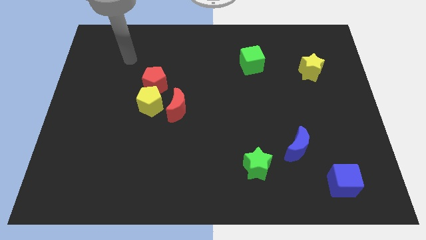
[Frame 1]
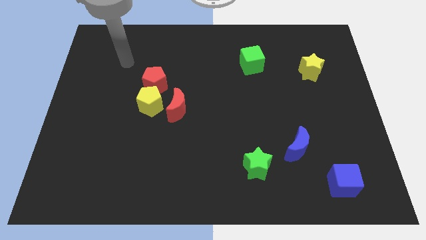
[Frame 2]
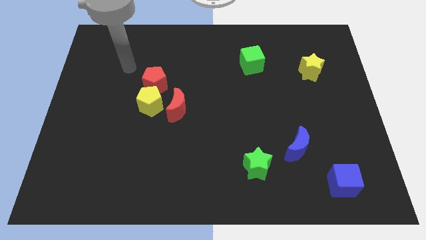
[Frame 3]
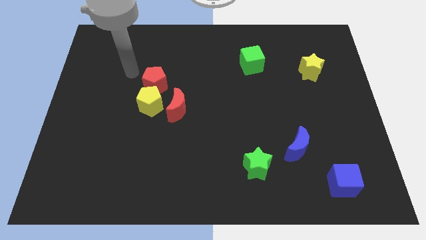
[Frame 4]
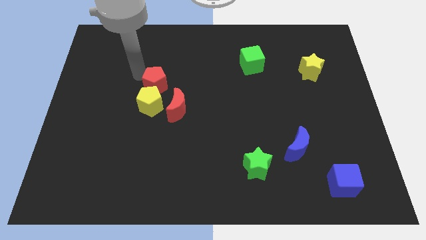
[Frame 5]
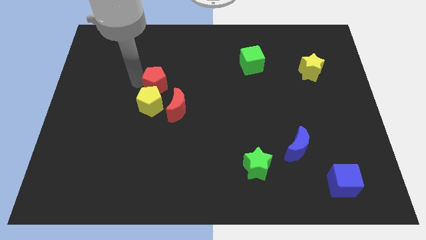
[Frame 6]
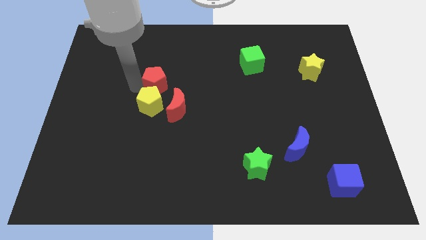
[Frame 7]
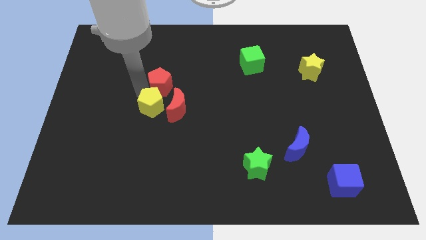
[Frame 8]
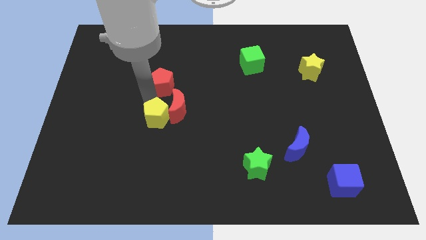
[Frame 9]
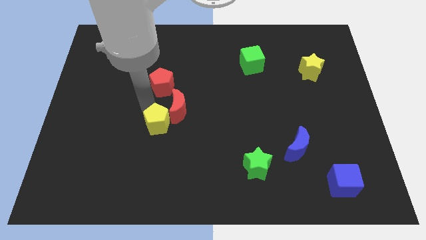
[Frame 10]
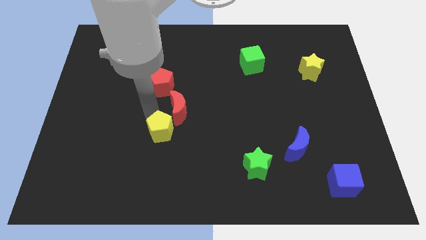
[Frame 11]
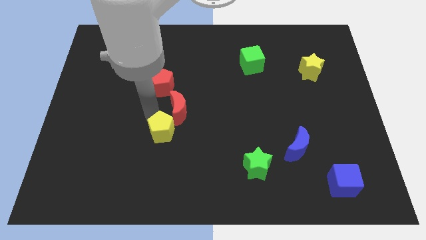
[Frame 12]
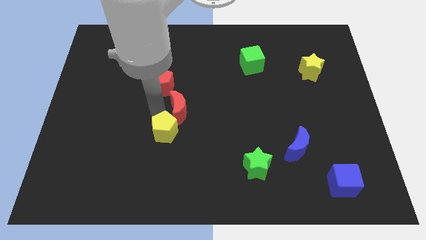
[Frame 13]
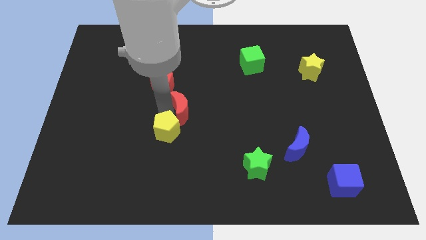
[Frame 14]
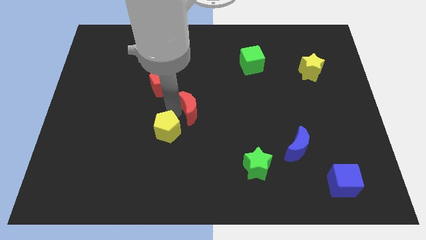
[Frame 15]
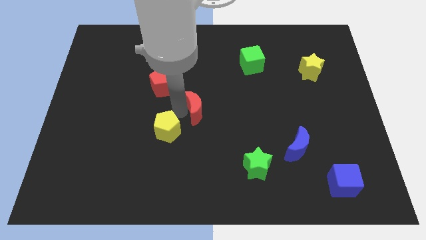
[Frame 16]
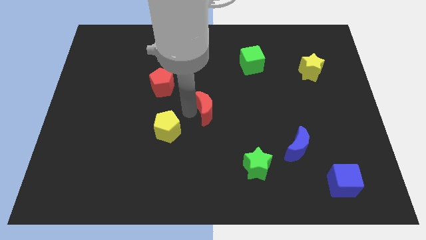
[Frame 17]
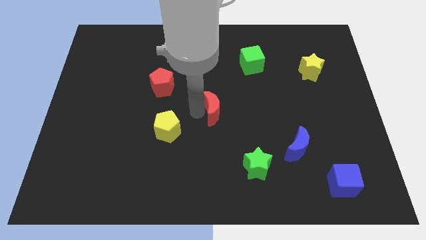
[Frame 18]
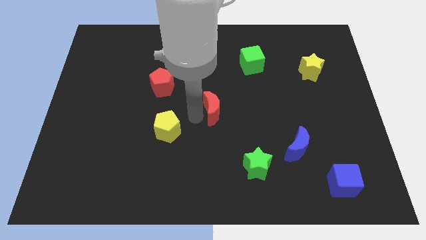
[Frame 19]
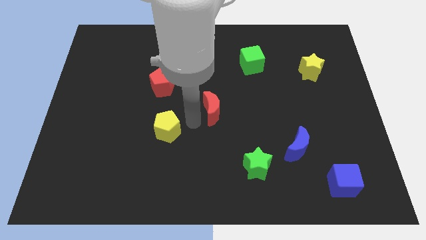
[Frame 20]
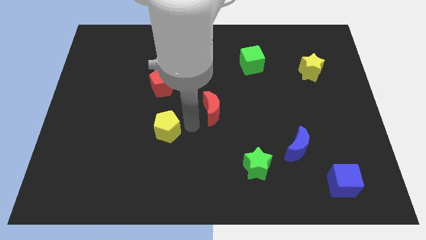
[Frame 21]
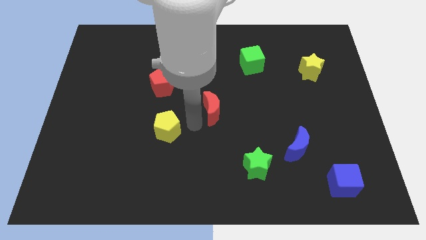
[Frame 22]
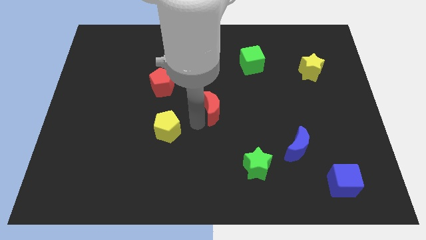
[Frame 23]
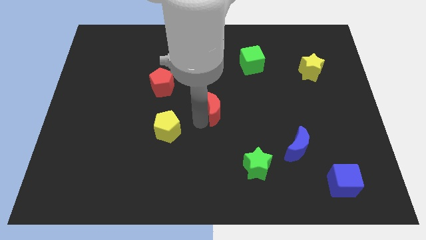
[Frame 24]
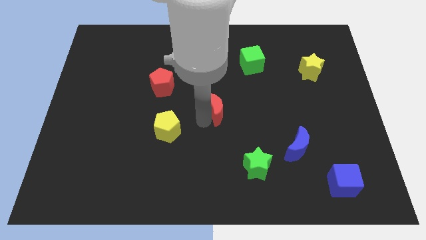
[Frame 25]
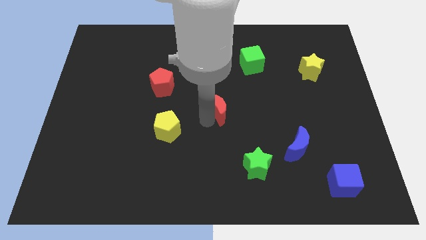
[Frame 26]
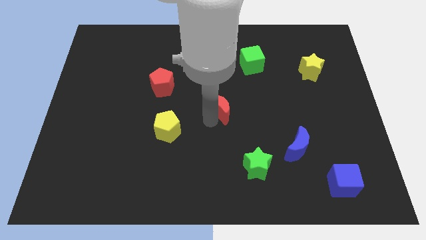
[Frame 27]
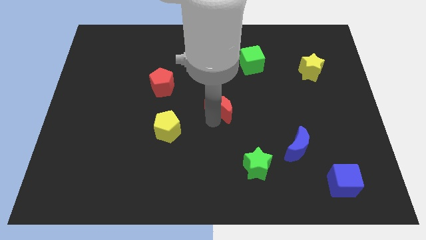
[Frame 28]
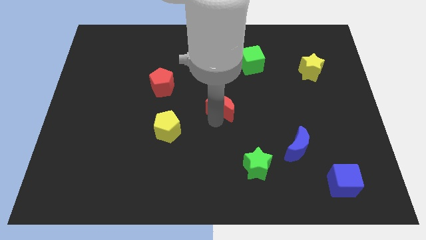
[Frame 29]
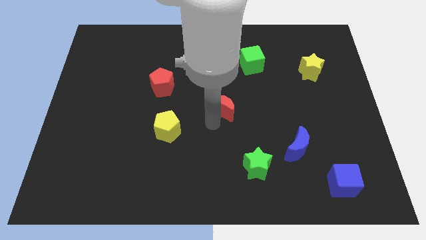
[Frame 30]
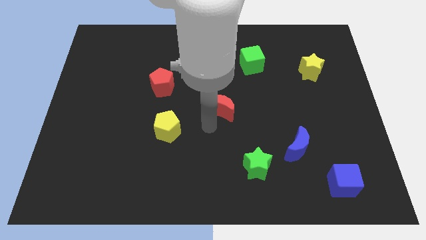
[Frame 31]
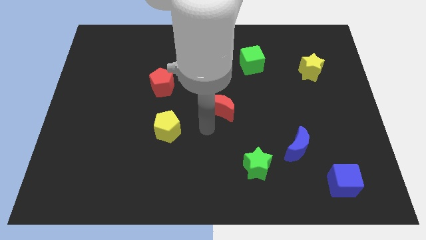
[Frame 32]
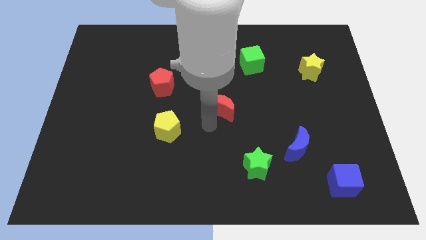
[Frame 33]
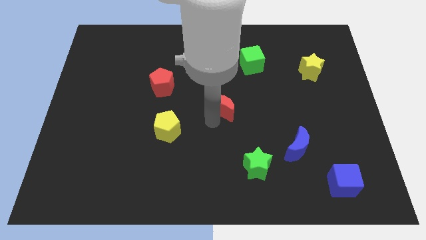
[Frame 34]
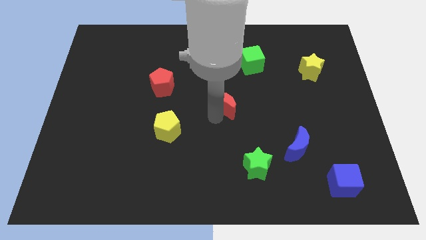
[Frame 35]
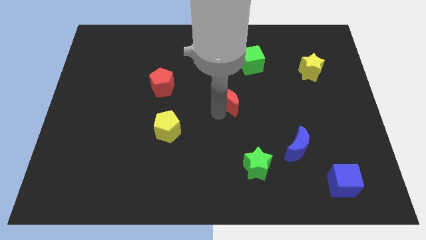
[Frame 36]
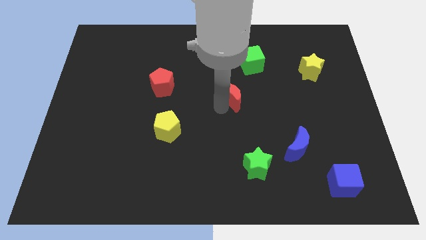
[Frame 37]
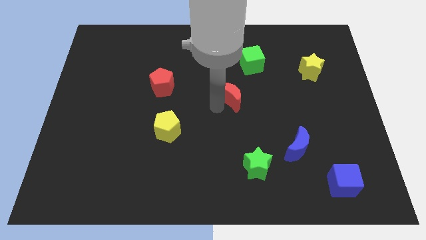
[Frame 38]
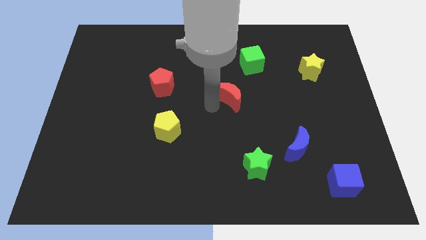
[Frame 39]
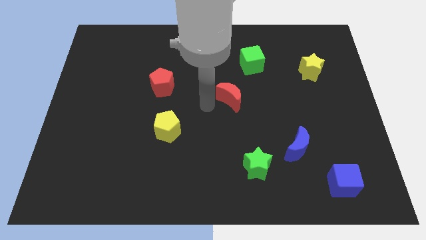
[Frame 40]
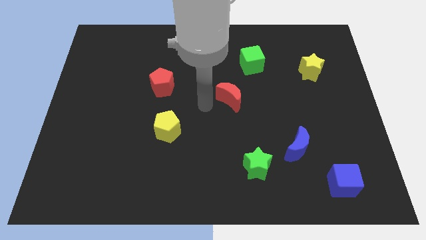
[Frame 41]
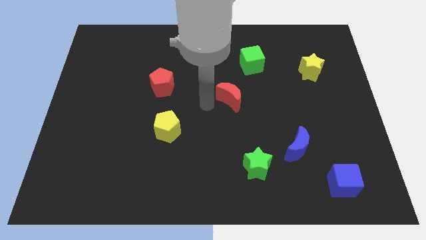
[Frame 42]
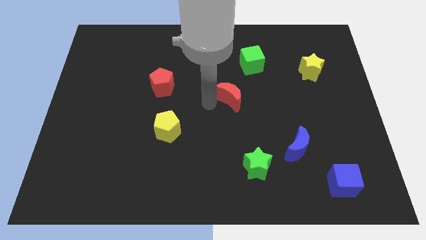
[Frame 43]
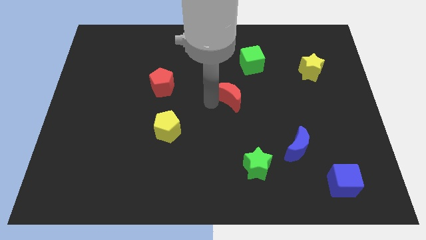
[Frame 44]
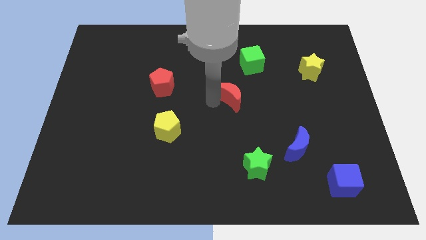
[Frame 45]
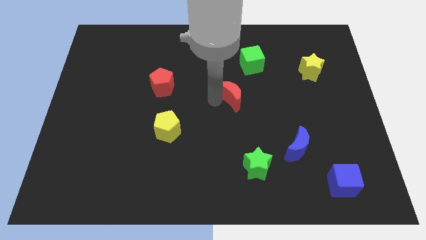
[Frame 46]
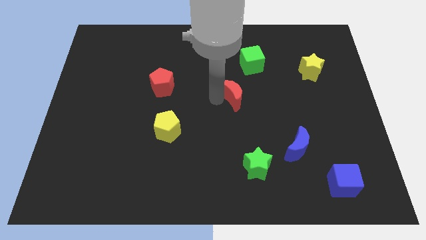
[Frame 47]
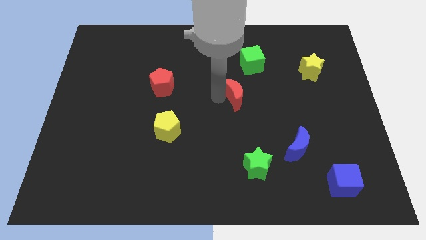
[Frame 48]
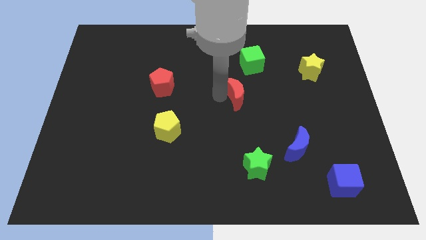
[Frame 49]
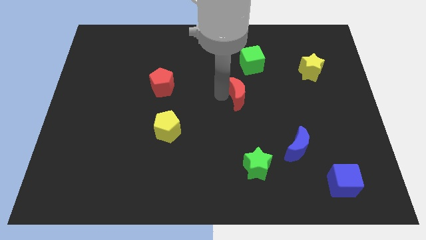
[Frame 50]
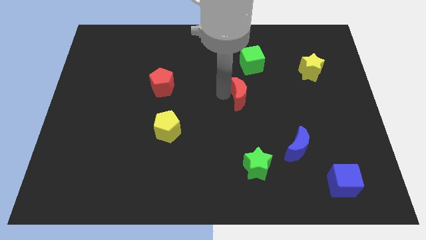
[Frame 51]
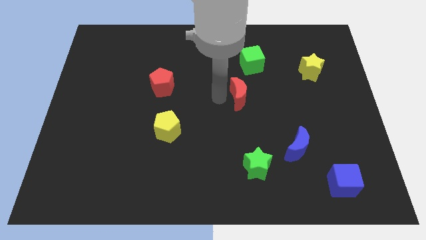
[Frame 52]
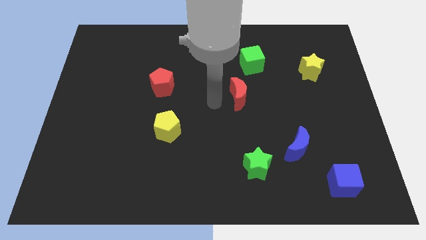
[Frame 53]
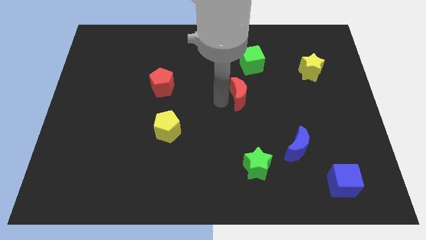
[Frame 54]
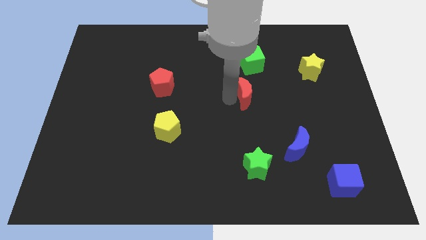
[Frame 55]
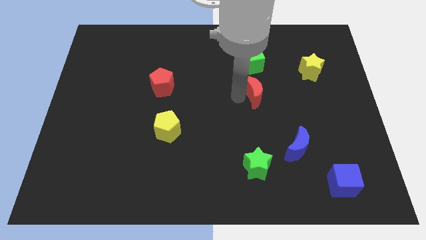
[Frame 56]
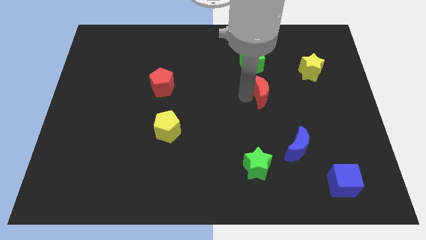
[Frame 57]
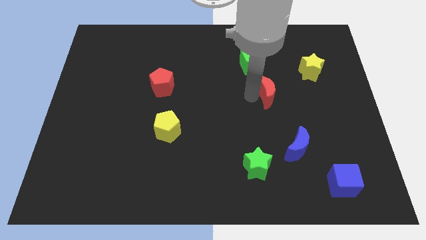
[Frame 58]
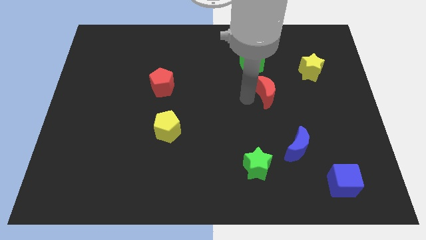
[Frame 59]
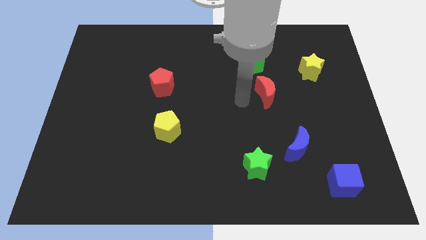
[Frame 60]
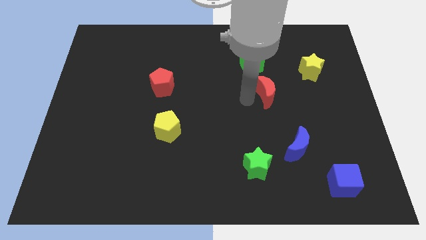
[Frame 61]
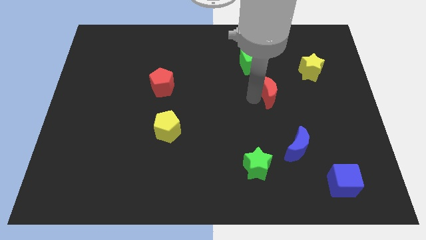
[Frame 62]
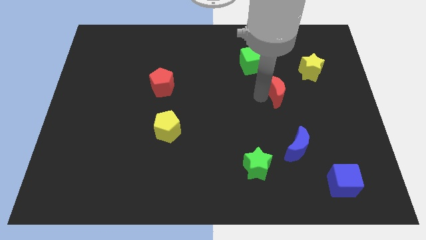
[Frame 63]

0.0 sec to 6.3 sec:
push the red moon to the bottom left of the yellow star

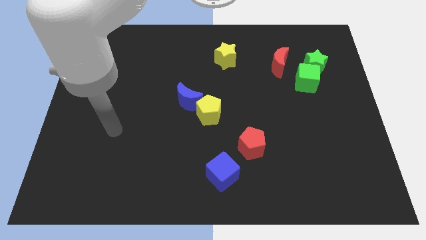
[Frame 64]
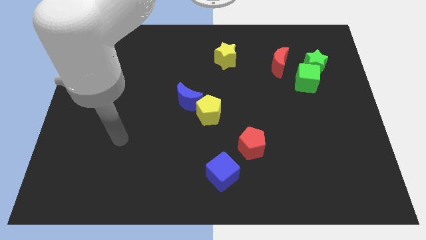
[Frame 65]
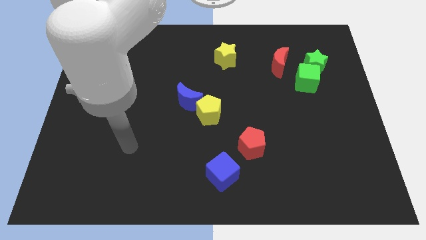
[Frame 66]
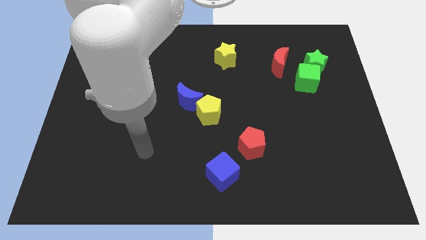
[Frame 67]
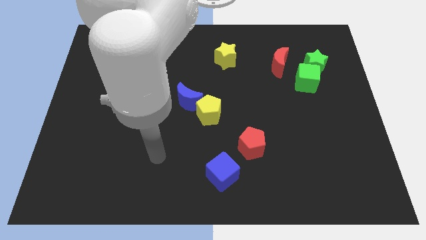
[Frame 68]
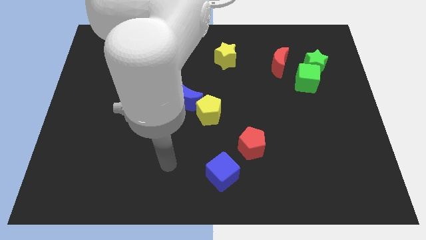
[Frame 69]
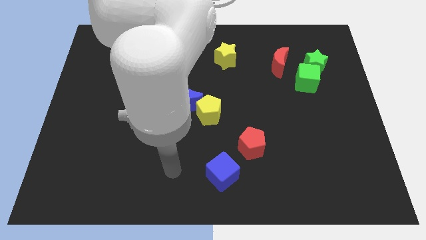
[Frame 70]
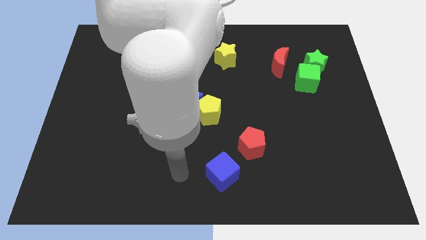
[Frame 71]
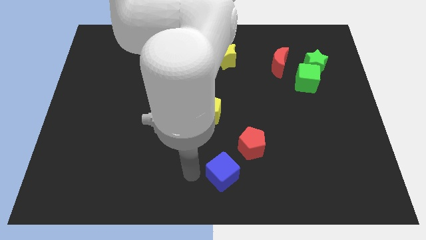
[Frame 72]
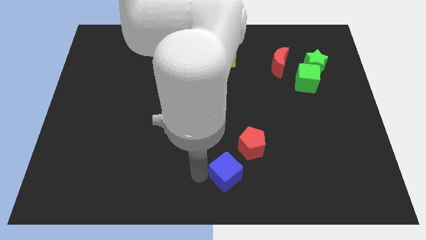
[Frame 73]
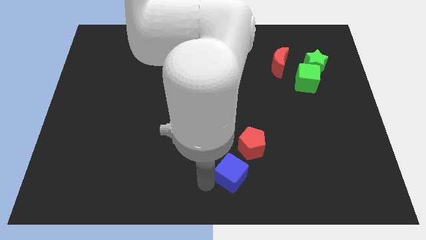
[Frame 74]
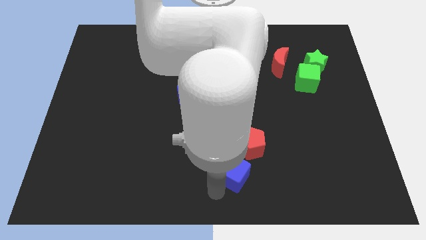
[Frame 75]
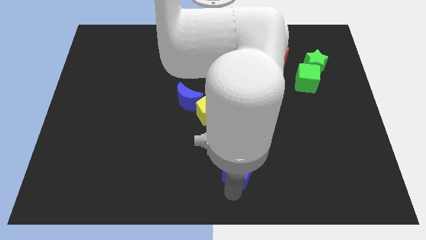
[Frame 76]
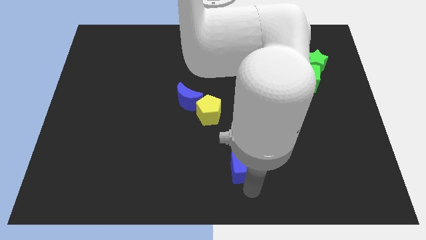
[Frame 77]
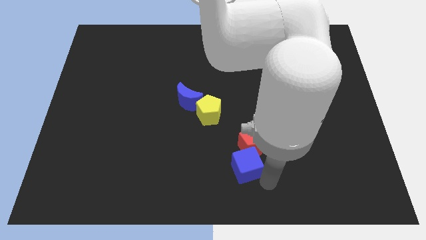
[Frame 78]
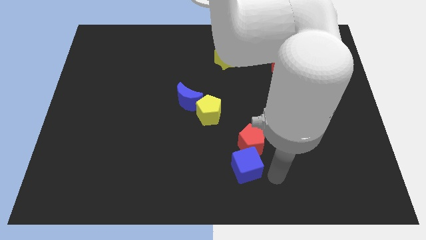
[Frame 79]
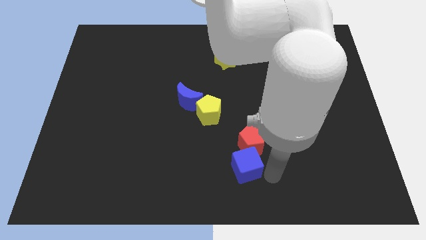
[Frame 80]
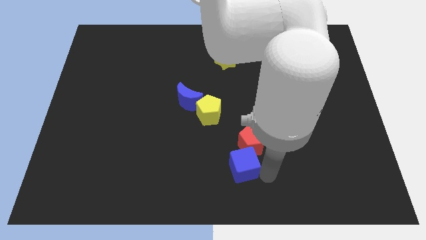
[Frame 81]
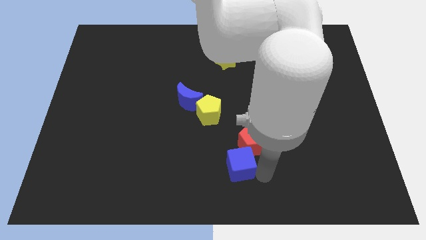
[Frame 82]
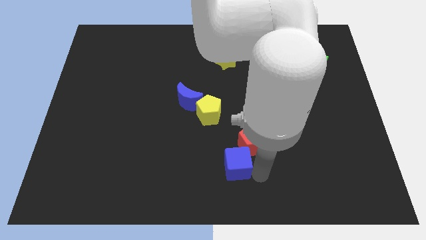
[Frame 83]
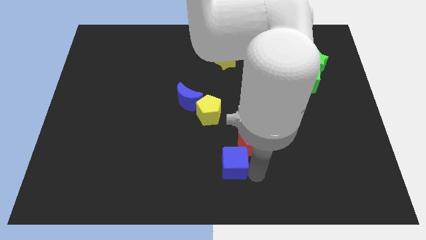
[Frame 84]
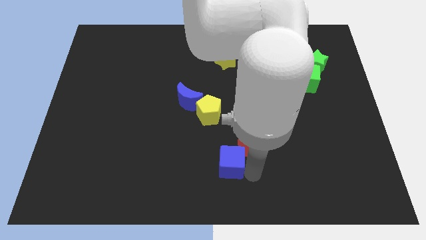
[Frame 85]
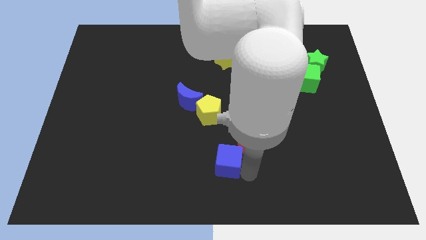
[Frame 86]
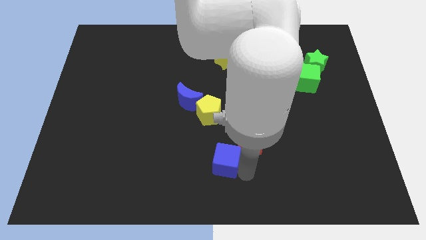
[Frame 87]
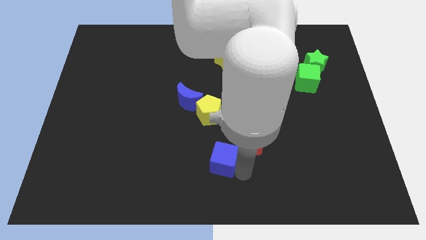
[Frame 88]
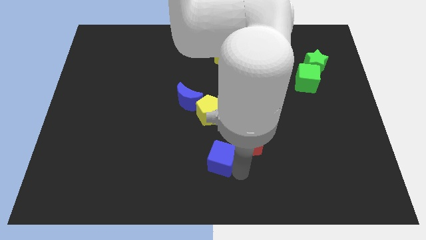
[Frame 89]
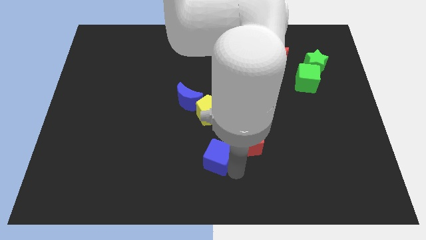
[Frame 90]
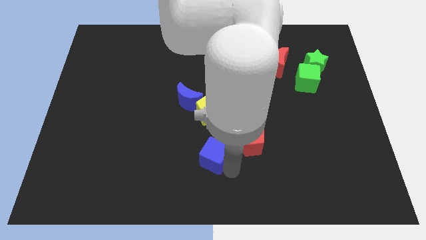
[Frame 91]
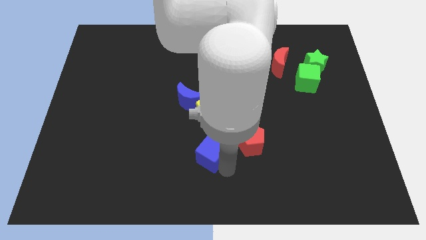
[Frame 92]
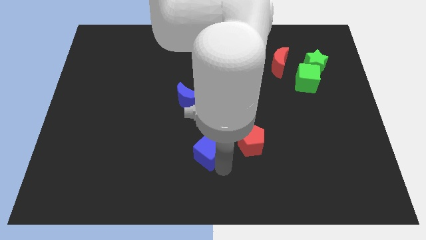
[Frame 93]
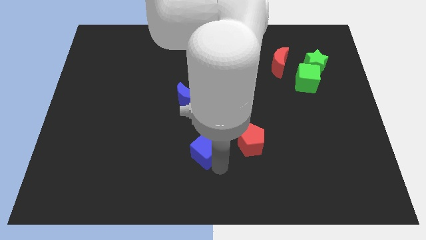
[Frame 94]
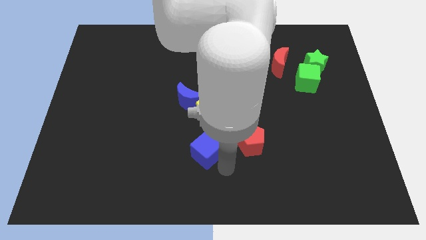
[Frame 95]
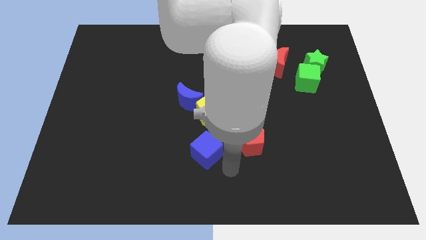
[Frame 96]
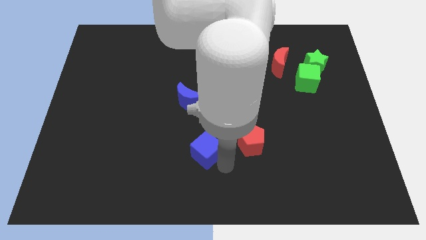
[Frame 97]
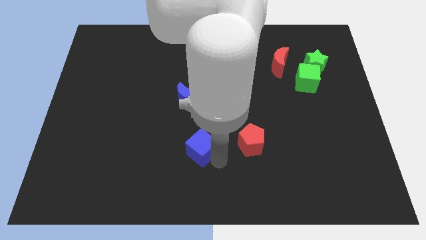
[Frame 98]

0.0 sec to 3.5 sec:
slide the blue cube to the bottom of the blue moon
